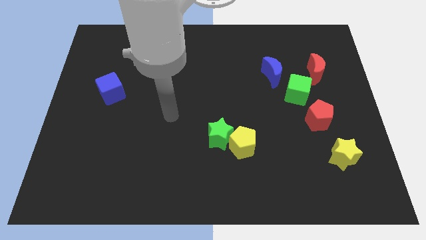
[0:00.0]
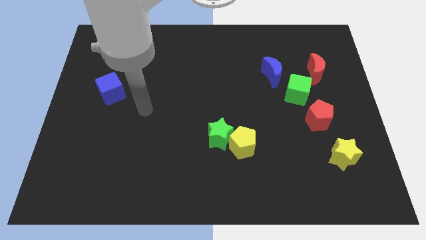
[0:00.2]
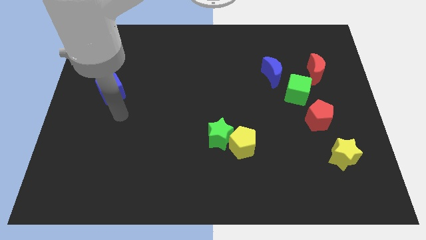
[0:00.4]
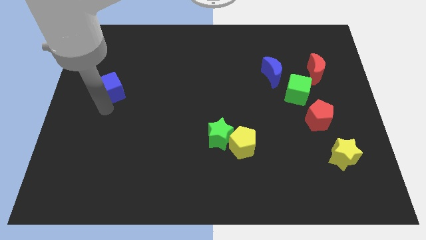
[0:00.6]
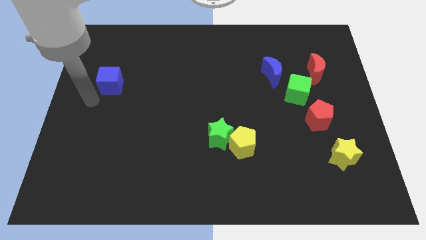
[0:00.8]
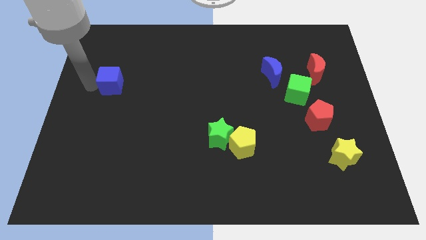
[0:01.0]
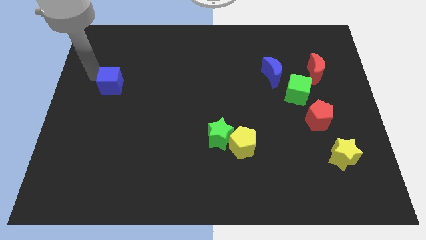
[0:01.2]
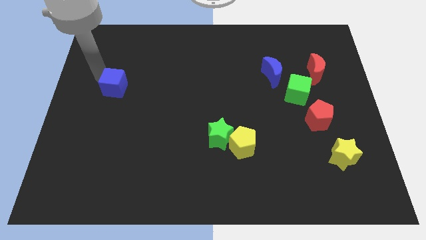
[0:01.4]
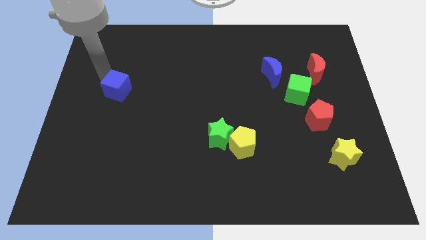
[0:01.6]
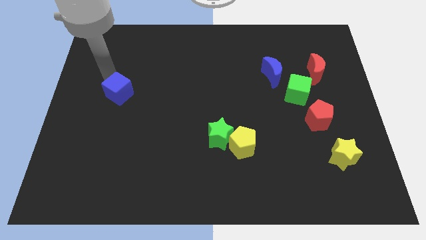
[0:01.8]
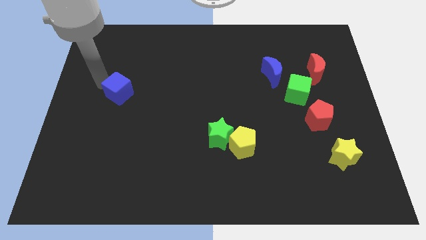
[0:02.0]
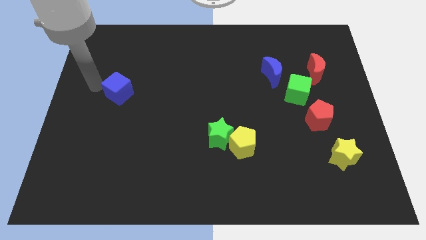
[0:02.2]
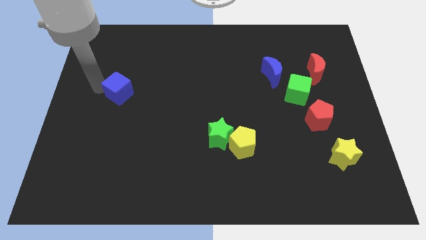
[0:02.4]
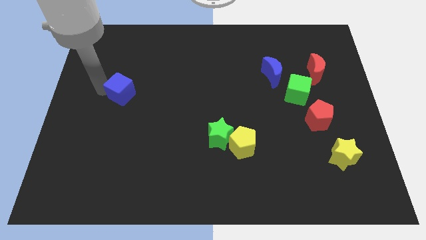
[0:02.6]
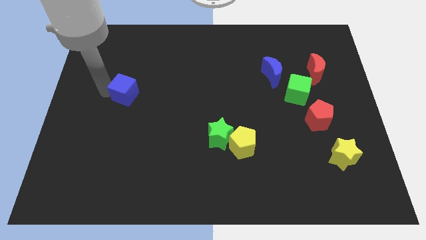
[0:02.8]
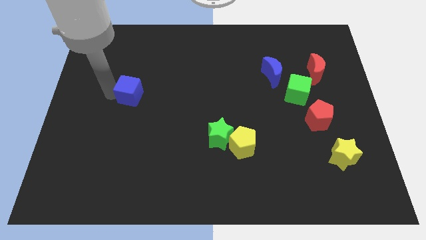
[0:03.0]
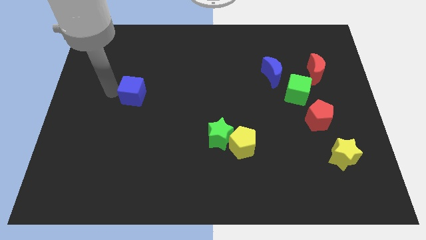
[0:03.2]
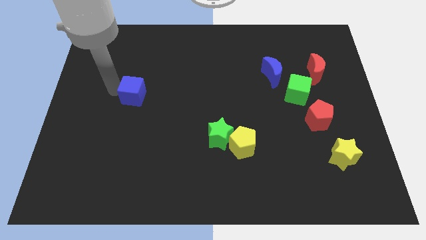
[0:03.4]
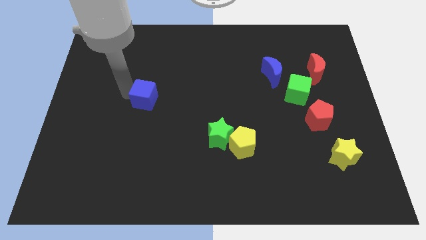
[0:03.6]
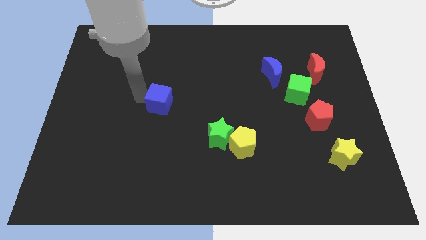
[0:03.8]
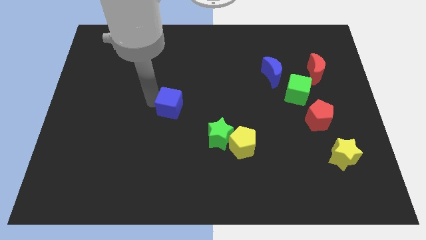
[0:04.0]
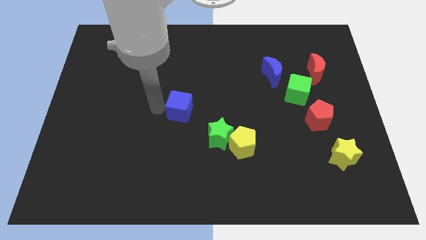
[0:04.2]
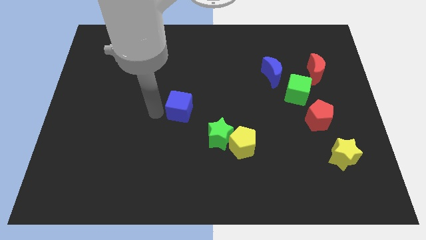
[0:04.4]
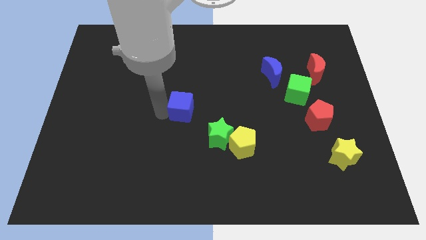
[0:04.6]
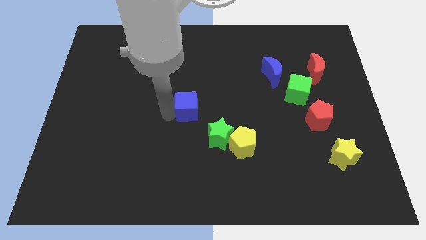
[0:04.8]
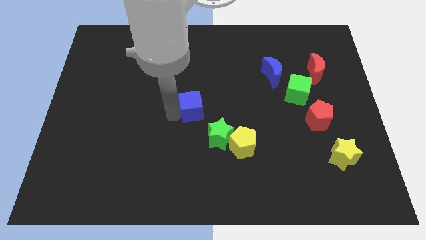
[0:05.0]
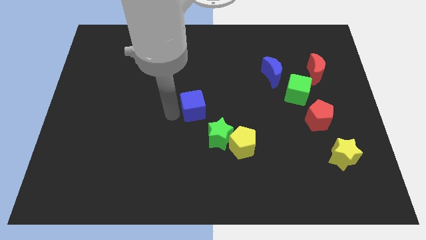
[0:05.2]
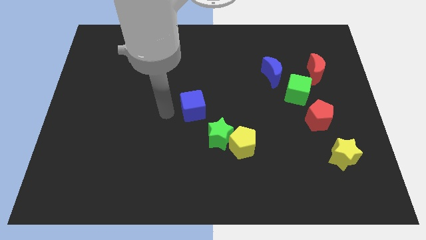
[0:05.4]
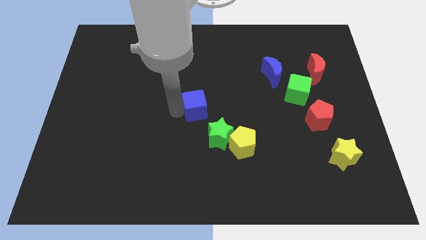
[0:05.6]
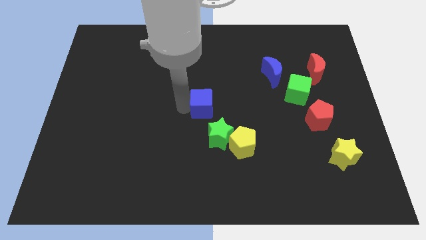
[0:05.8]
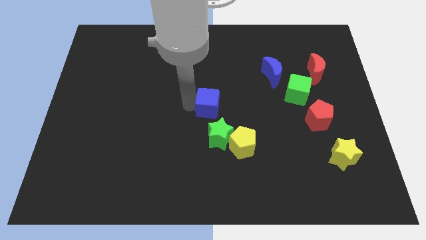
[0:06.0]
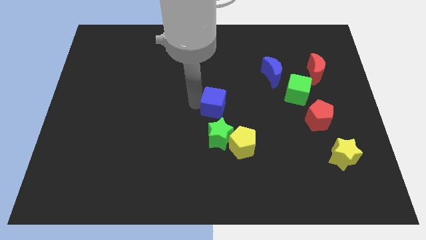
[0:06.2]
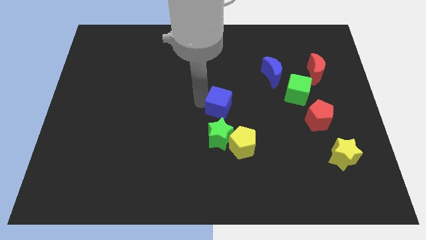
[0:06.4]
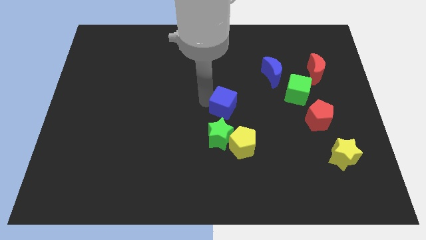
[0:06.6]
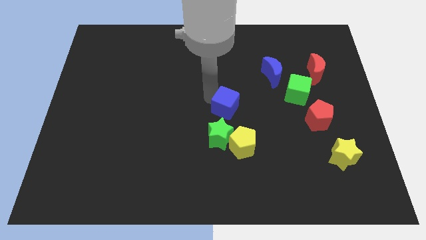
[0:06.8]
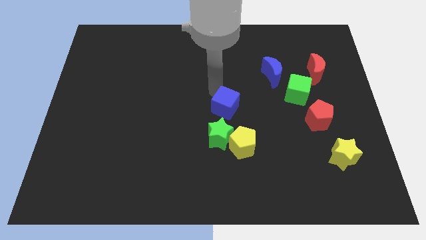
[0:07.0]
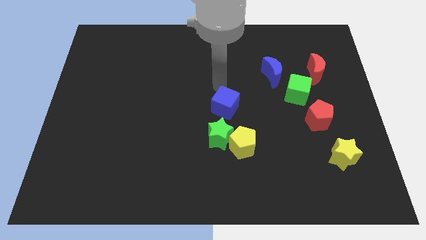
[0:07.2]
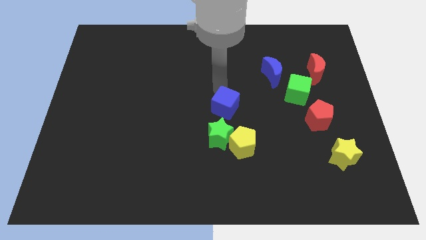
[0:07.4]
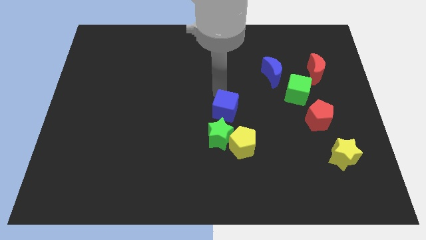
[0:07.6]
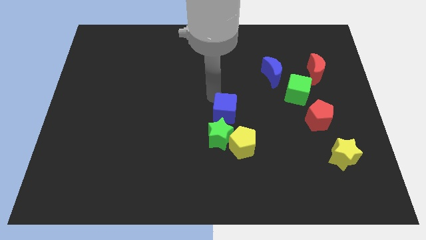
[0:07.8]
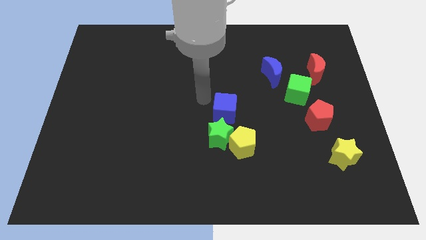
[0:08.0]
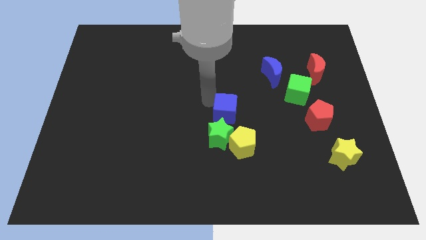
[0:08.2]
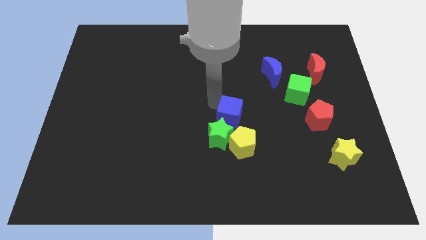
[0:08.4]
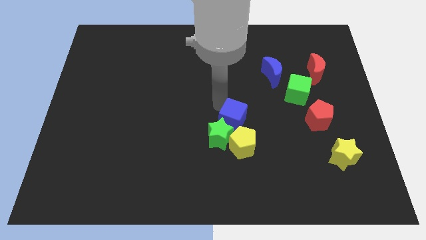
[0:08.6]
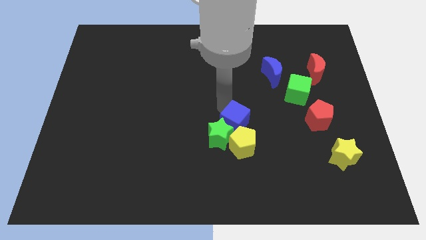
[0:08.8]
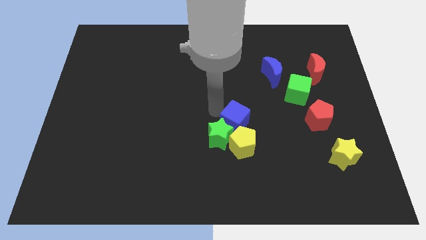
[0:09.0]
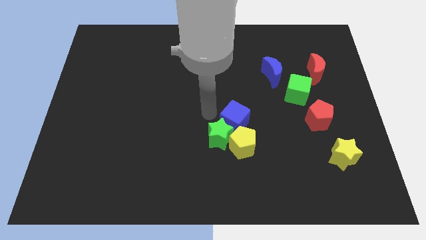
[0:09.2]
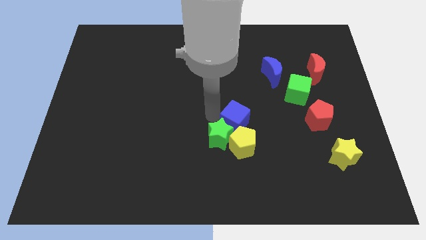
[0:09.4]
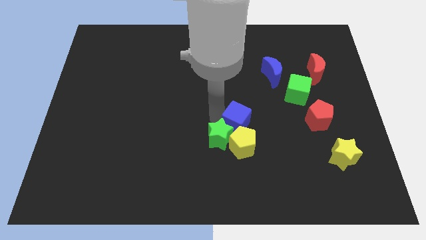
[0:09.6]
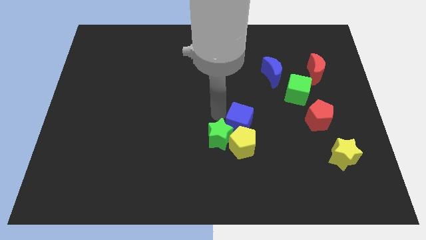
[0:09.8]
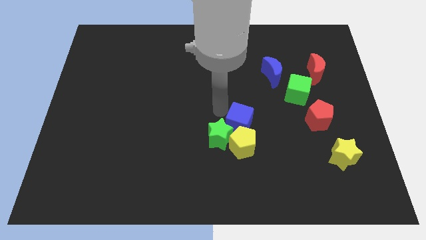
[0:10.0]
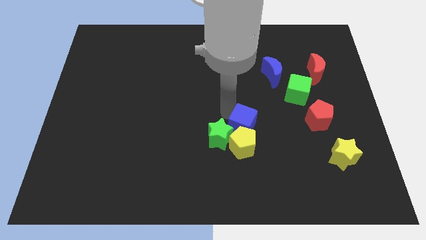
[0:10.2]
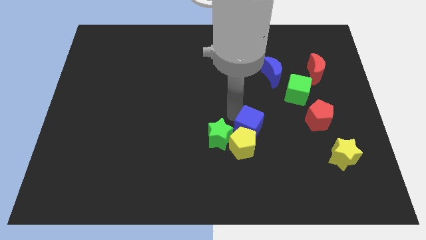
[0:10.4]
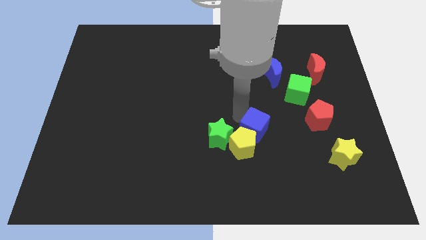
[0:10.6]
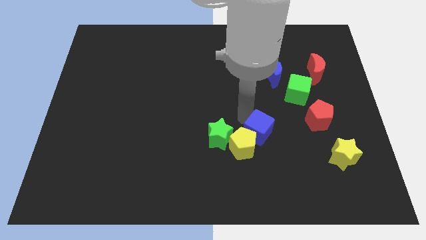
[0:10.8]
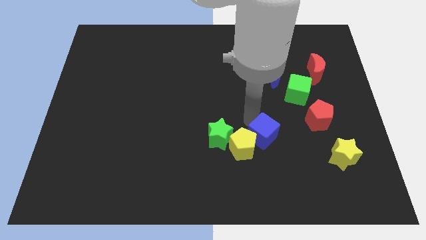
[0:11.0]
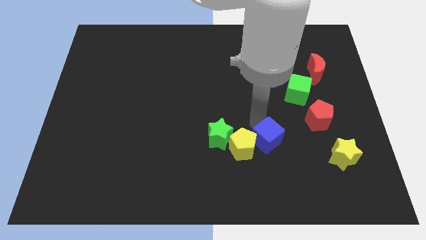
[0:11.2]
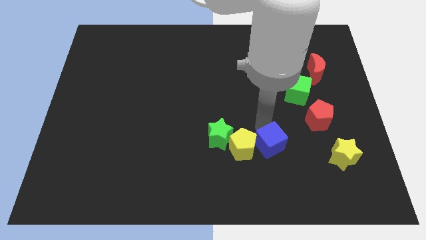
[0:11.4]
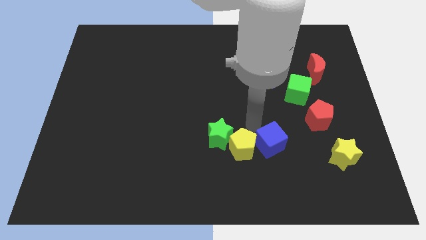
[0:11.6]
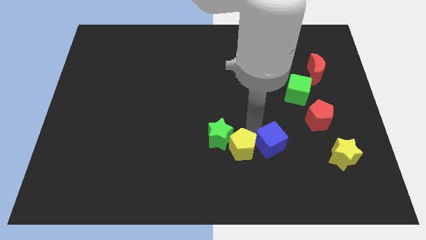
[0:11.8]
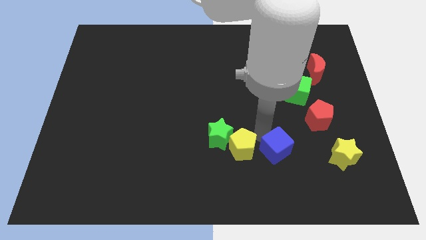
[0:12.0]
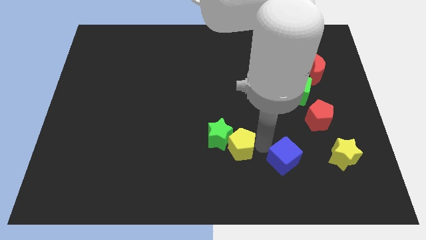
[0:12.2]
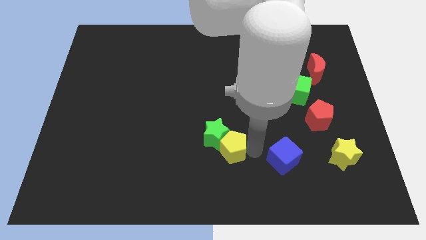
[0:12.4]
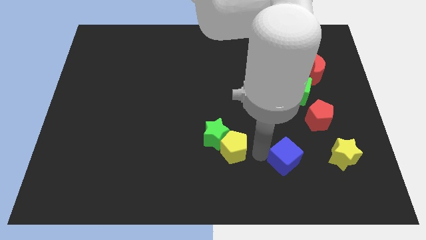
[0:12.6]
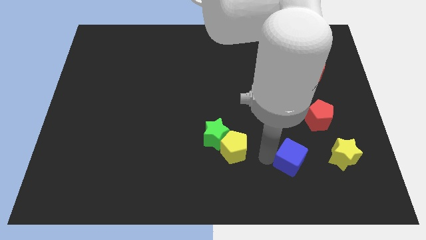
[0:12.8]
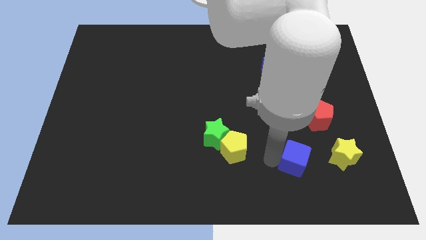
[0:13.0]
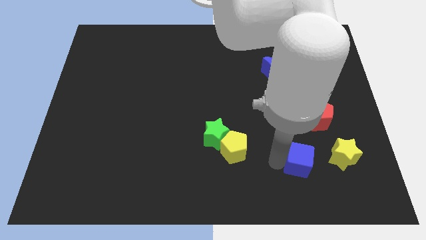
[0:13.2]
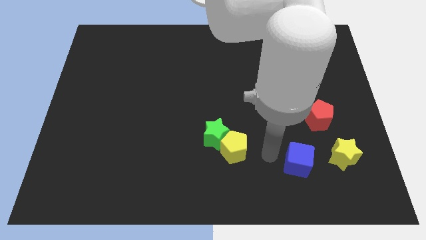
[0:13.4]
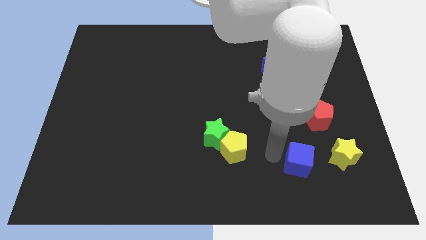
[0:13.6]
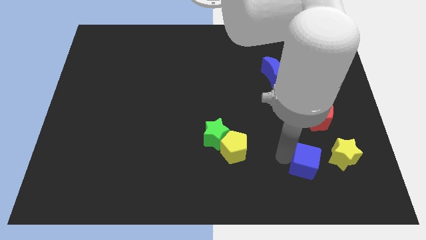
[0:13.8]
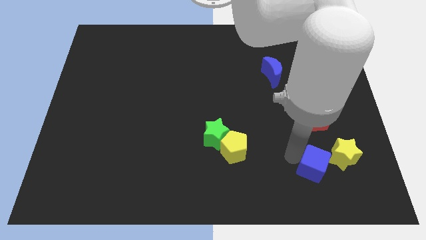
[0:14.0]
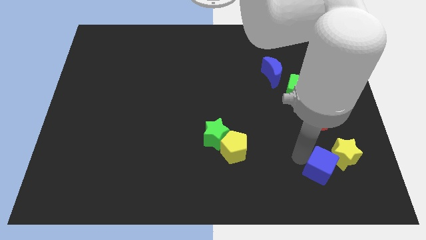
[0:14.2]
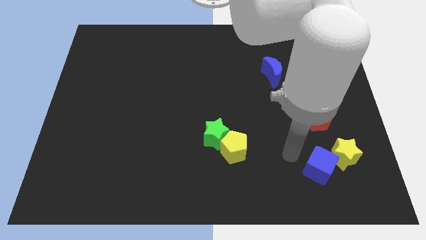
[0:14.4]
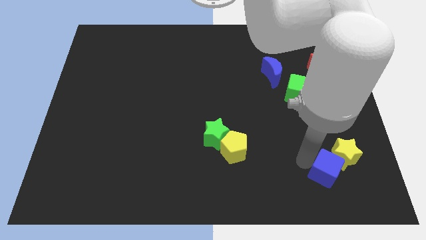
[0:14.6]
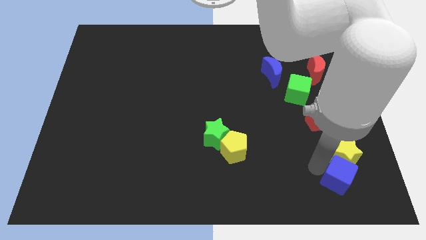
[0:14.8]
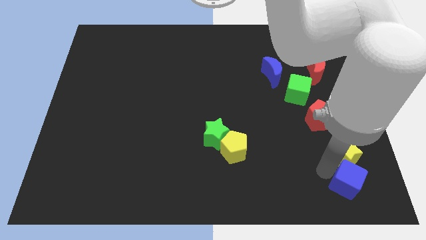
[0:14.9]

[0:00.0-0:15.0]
put the blue cube to the bottom right
